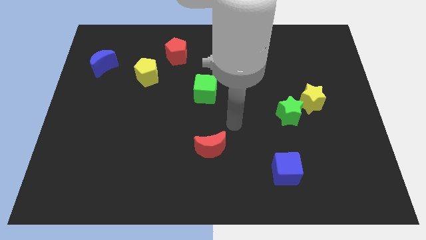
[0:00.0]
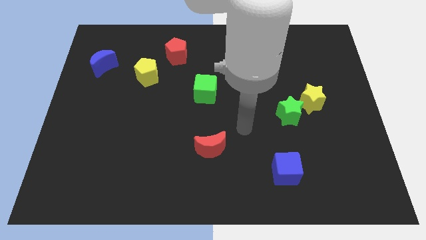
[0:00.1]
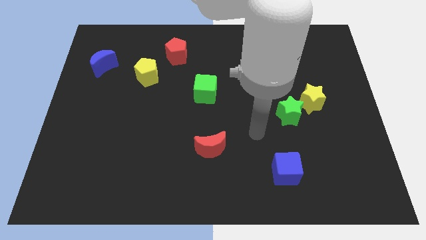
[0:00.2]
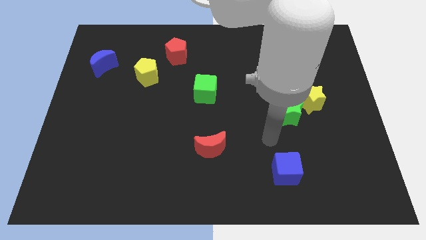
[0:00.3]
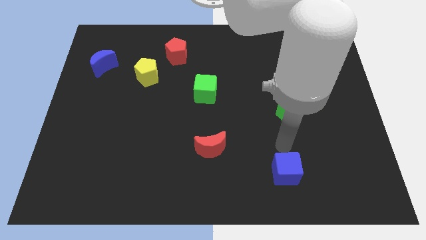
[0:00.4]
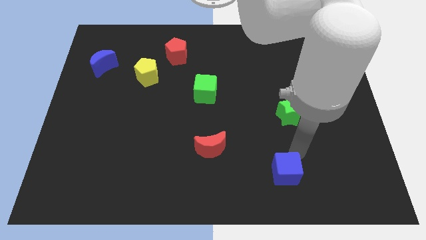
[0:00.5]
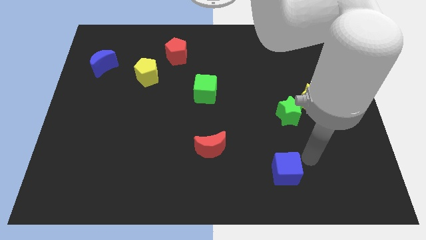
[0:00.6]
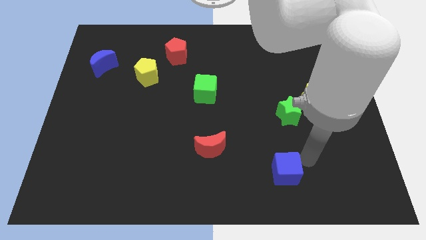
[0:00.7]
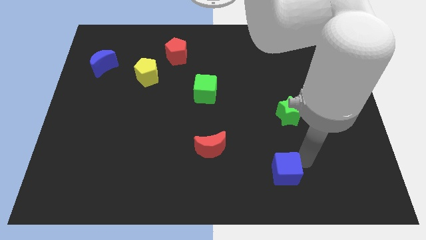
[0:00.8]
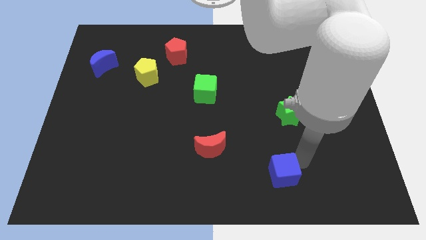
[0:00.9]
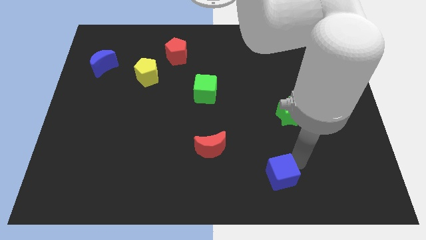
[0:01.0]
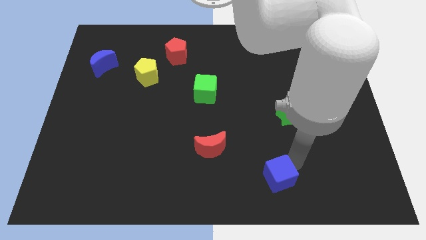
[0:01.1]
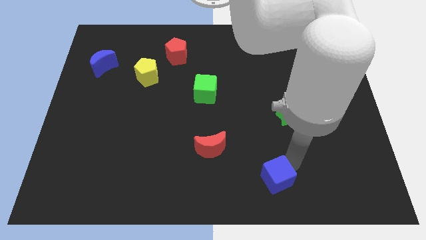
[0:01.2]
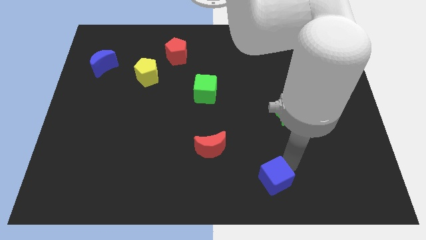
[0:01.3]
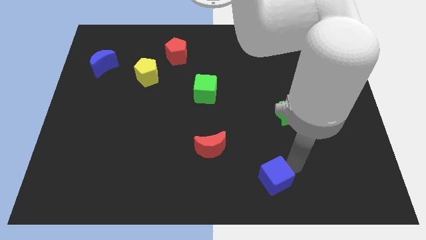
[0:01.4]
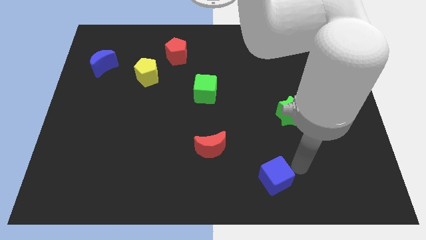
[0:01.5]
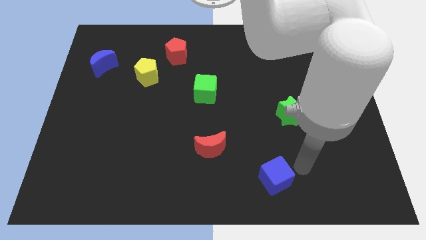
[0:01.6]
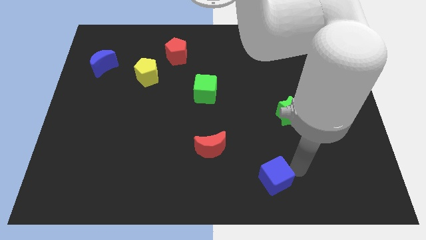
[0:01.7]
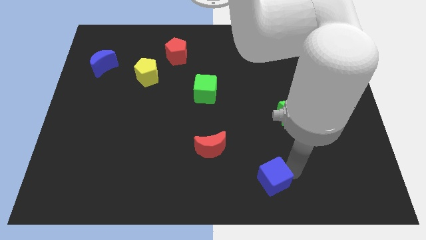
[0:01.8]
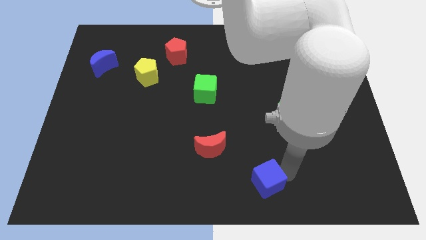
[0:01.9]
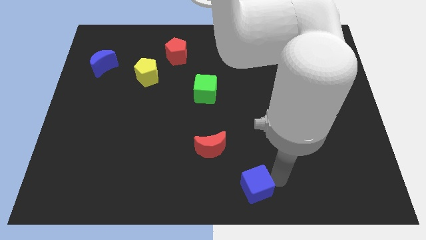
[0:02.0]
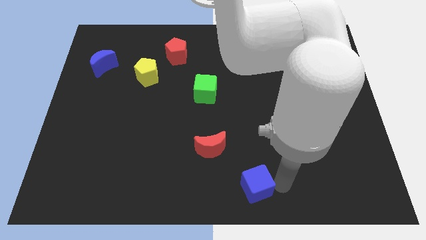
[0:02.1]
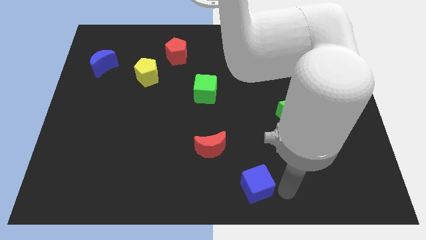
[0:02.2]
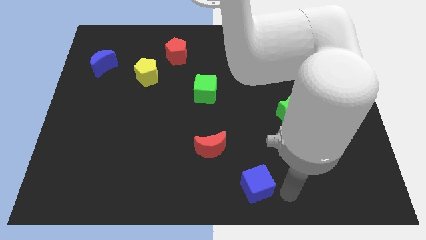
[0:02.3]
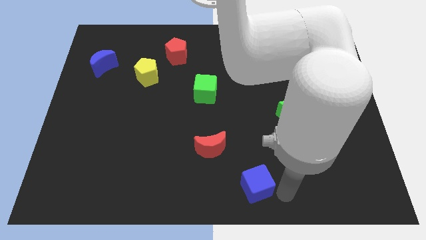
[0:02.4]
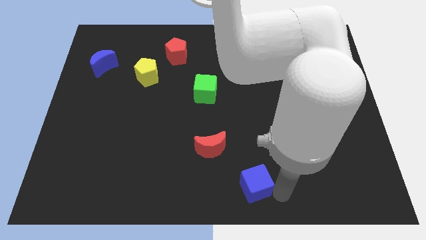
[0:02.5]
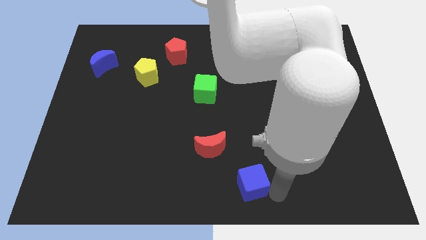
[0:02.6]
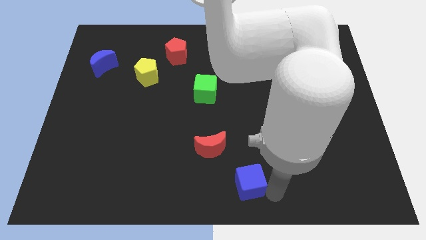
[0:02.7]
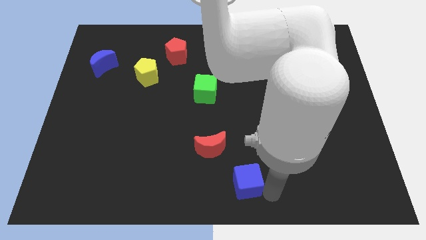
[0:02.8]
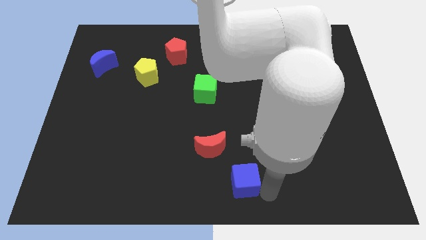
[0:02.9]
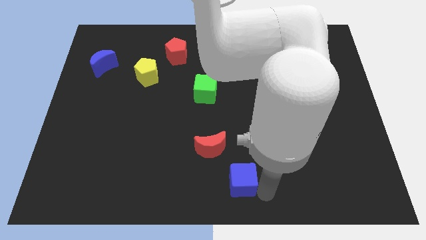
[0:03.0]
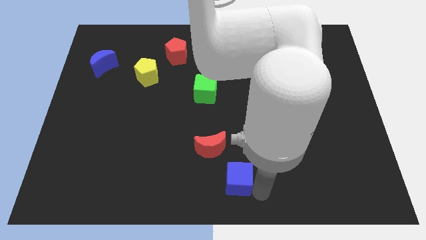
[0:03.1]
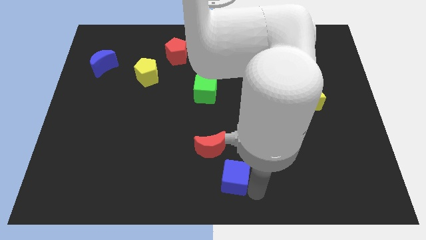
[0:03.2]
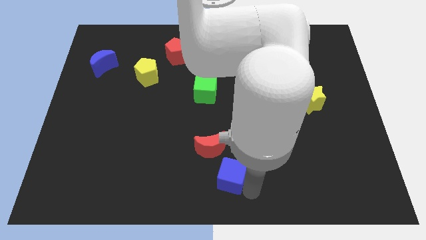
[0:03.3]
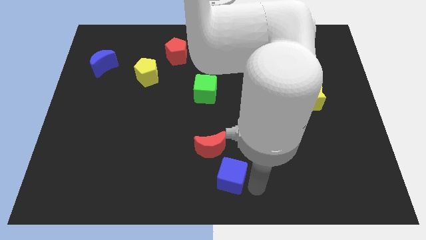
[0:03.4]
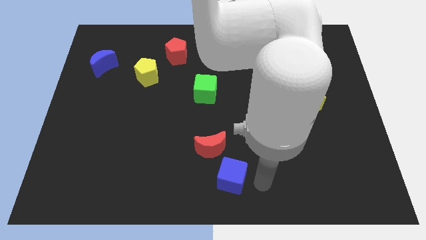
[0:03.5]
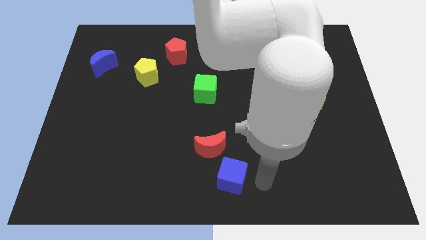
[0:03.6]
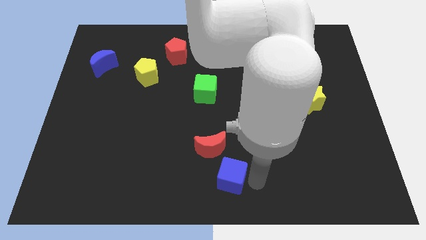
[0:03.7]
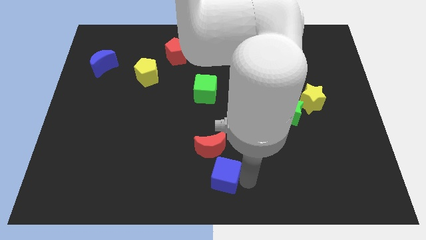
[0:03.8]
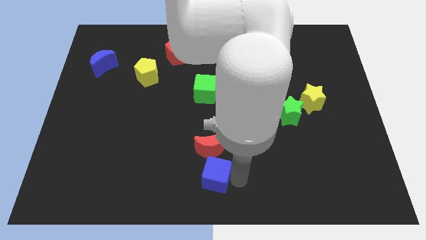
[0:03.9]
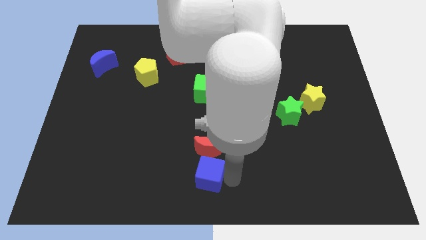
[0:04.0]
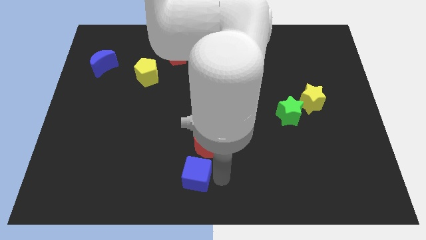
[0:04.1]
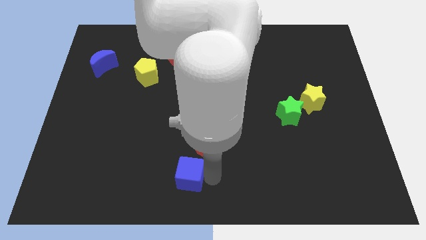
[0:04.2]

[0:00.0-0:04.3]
move the blue cube to the left

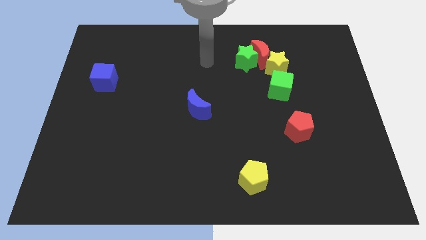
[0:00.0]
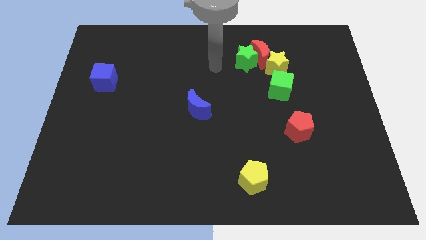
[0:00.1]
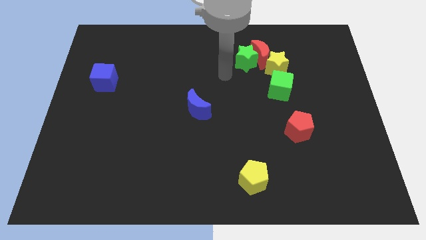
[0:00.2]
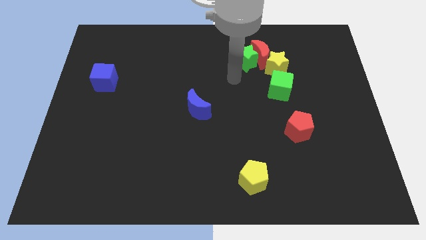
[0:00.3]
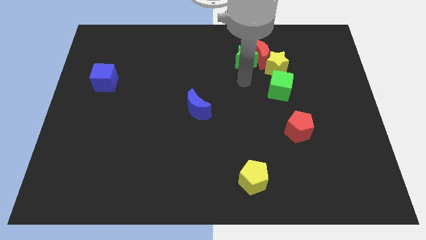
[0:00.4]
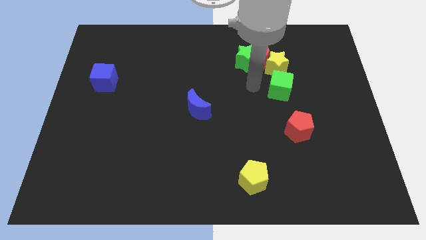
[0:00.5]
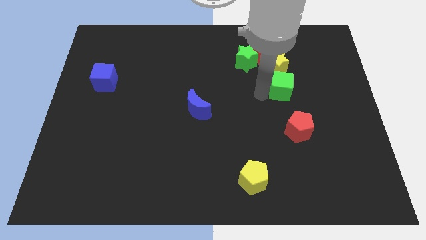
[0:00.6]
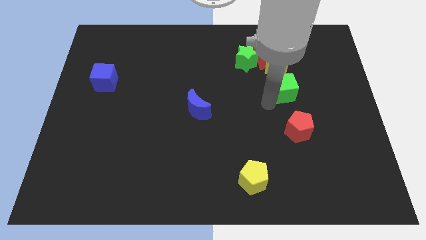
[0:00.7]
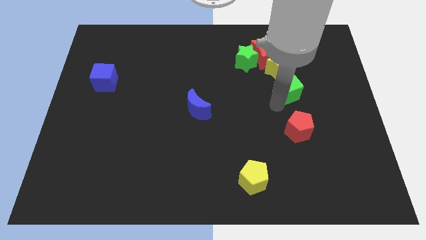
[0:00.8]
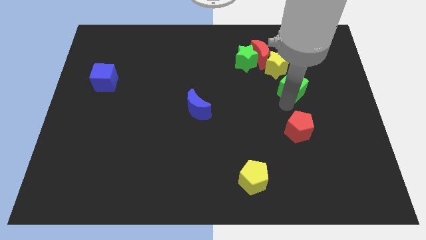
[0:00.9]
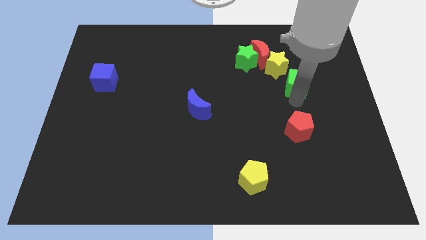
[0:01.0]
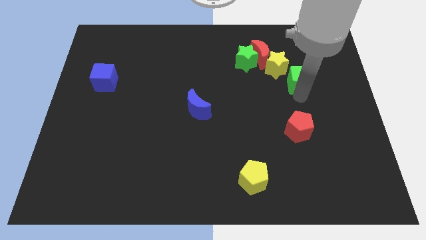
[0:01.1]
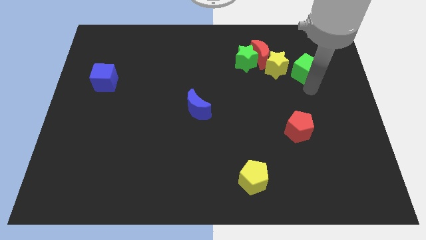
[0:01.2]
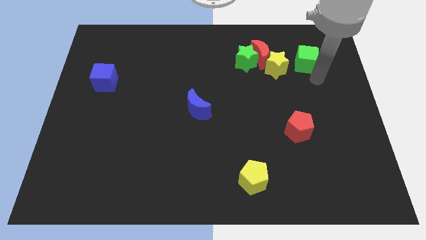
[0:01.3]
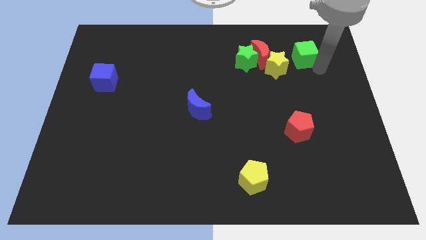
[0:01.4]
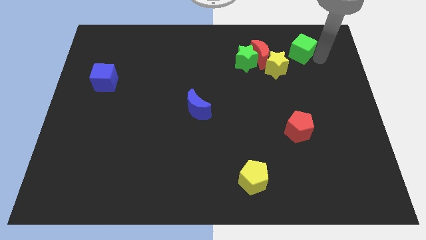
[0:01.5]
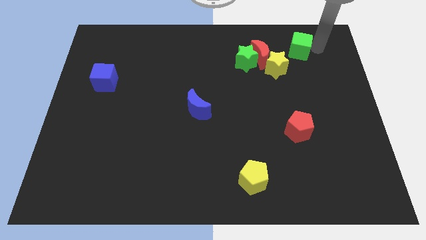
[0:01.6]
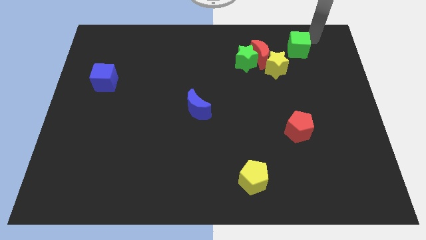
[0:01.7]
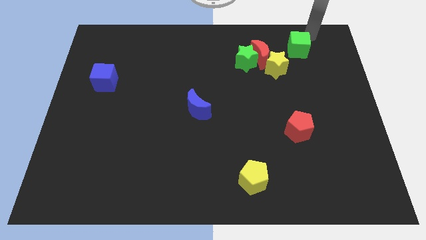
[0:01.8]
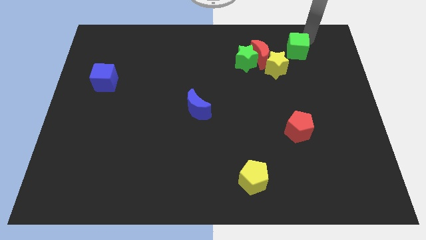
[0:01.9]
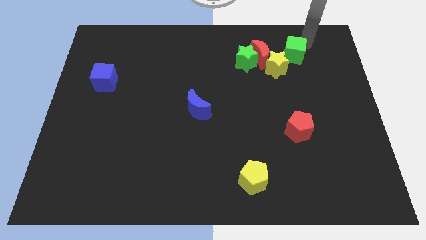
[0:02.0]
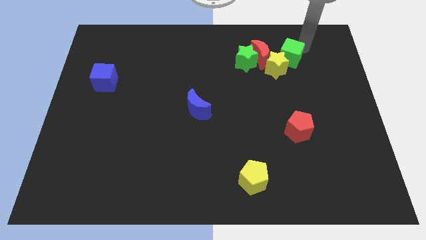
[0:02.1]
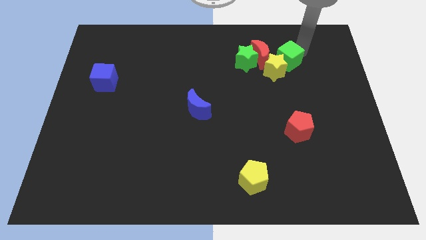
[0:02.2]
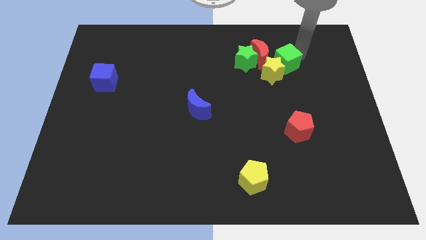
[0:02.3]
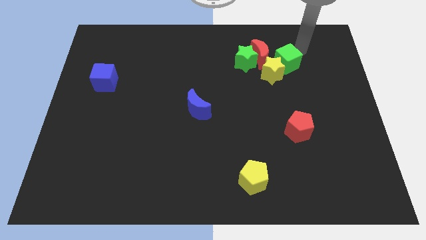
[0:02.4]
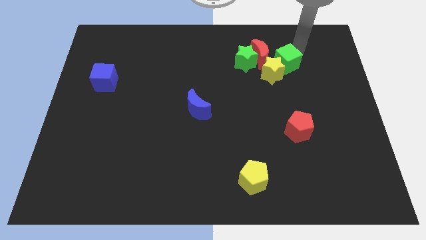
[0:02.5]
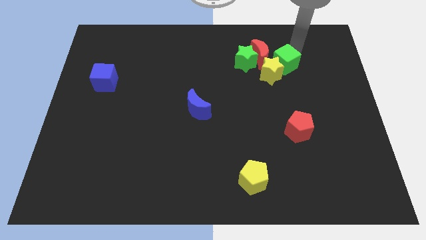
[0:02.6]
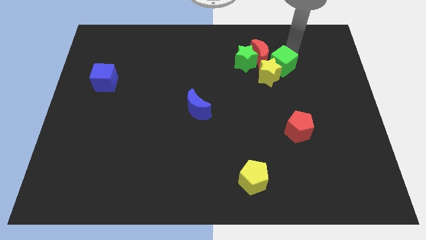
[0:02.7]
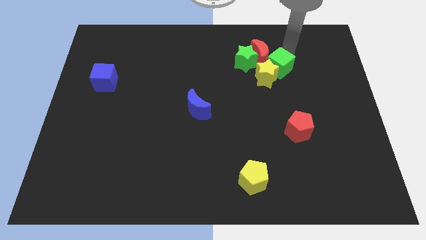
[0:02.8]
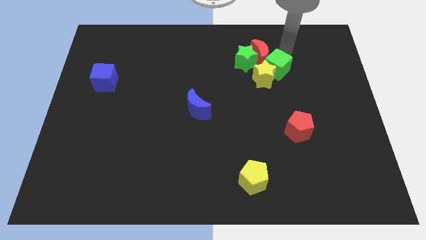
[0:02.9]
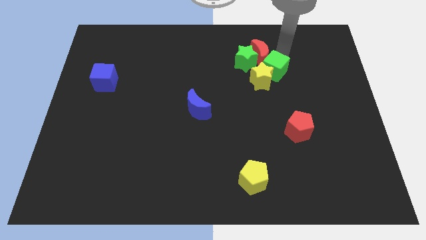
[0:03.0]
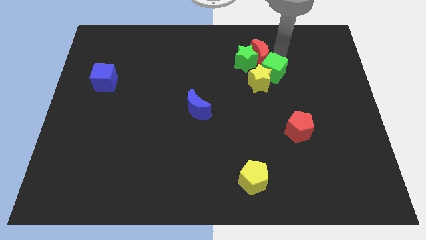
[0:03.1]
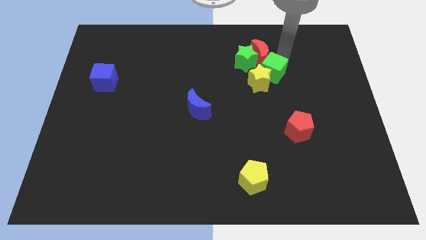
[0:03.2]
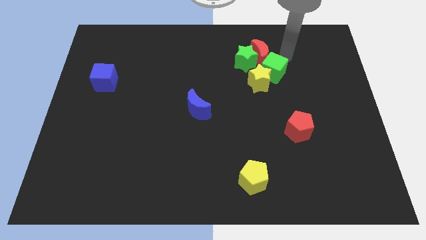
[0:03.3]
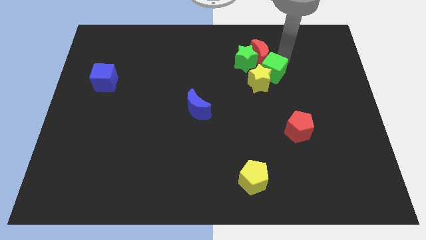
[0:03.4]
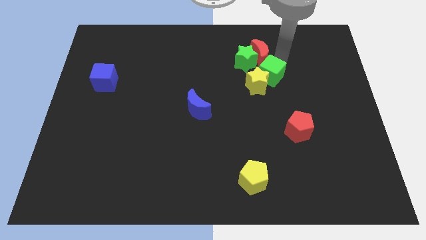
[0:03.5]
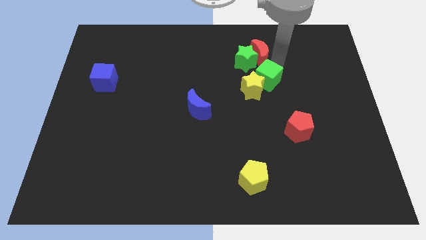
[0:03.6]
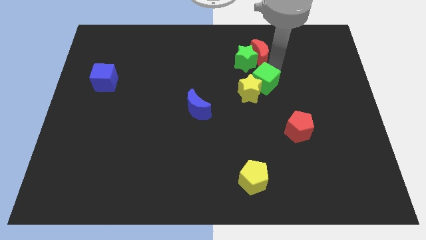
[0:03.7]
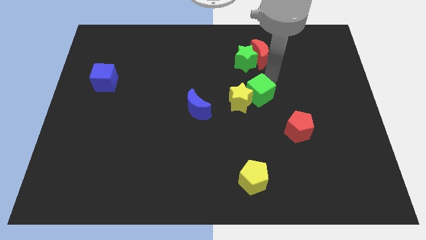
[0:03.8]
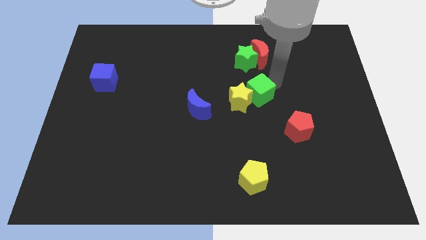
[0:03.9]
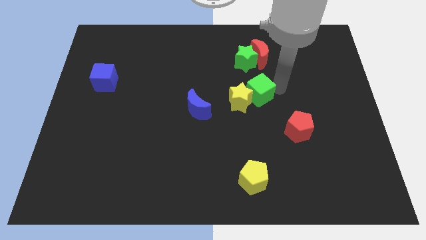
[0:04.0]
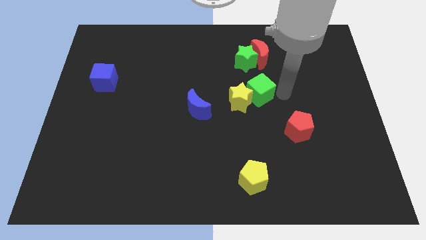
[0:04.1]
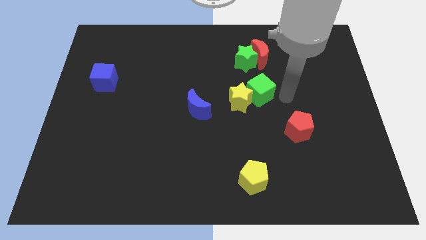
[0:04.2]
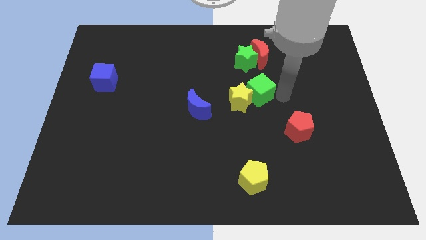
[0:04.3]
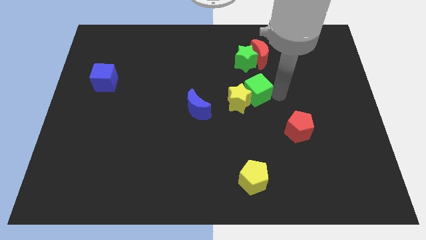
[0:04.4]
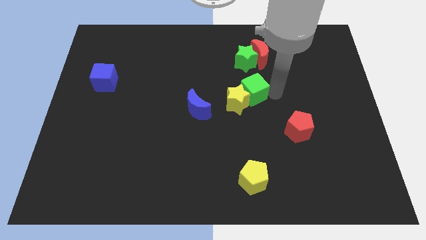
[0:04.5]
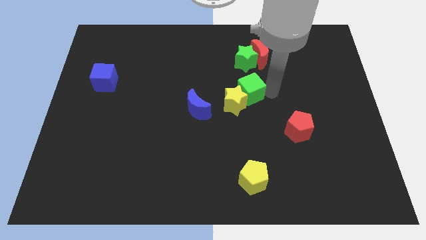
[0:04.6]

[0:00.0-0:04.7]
push the green cube a little left
